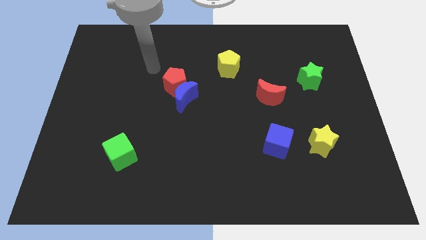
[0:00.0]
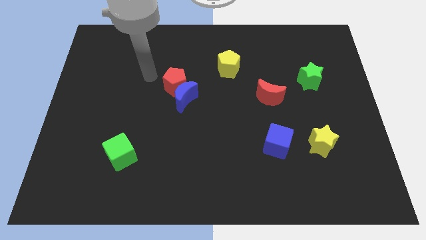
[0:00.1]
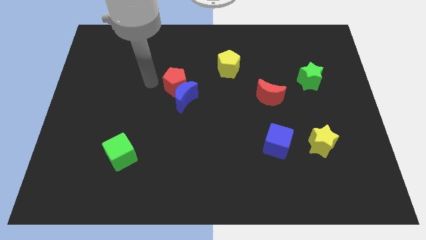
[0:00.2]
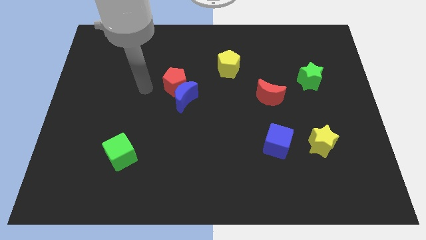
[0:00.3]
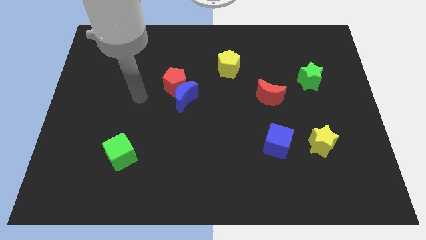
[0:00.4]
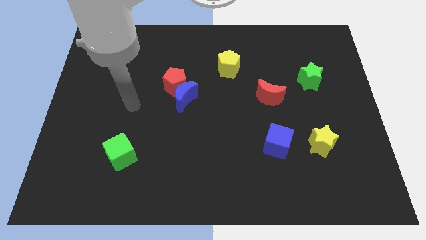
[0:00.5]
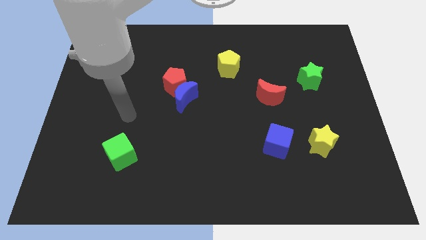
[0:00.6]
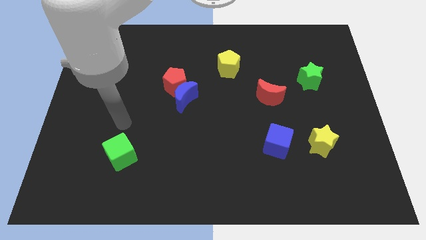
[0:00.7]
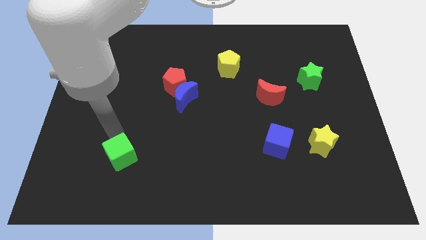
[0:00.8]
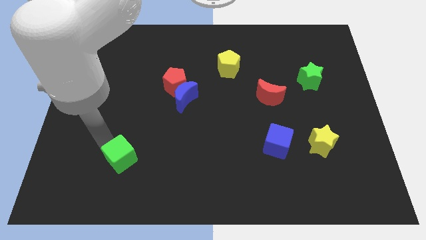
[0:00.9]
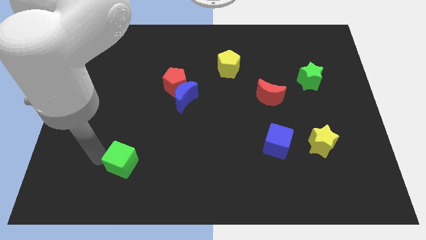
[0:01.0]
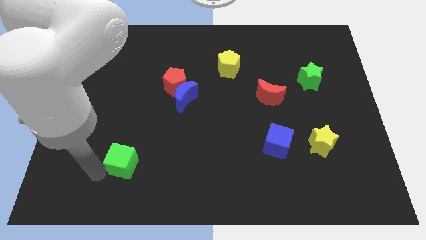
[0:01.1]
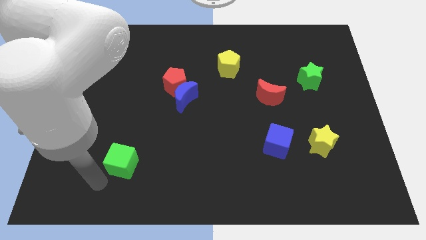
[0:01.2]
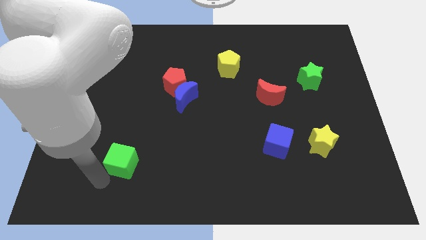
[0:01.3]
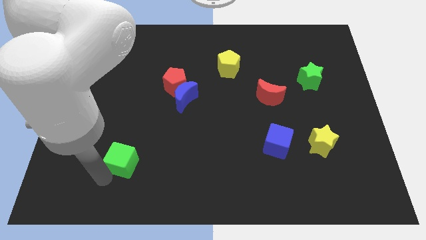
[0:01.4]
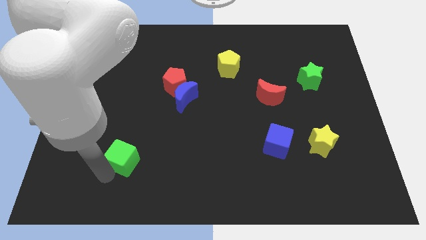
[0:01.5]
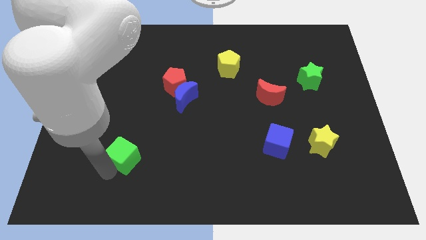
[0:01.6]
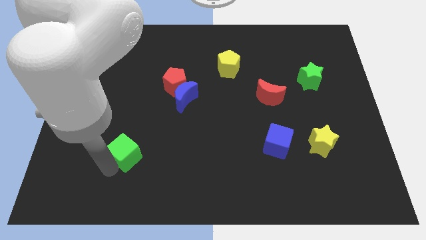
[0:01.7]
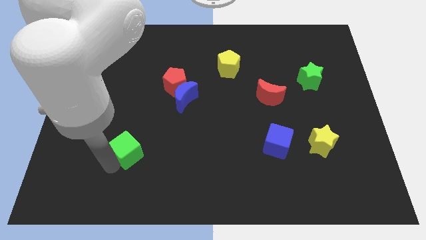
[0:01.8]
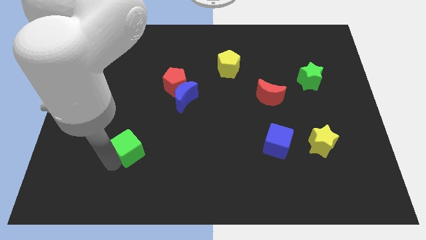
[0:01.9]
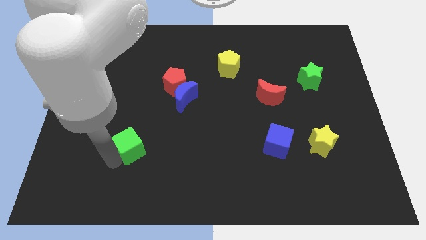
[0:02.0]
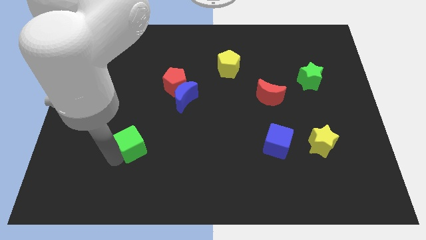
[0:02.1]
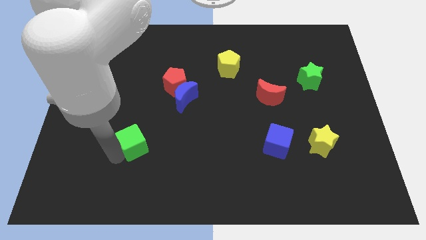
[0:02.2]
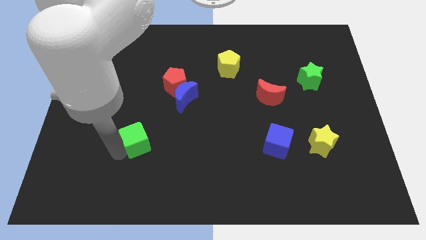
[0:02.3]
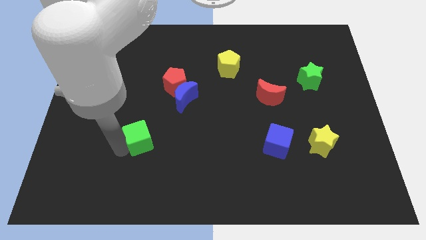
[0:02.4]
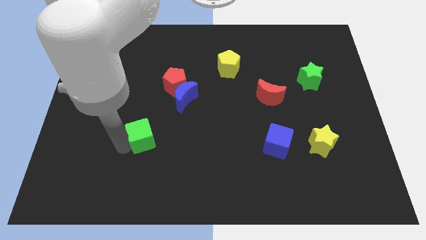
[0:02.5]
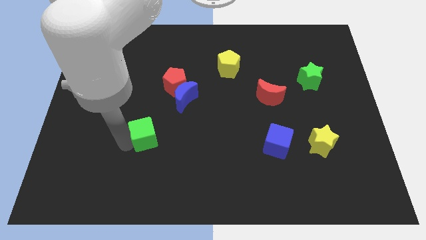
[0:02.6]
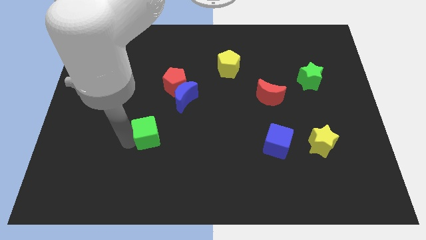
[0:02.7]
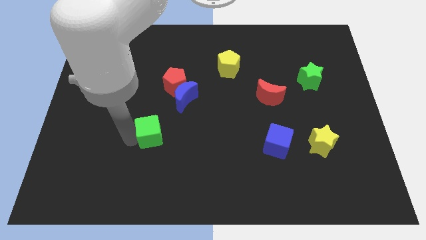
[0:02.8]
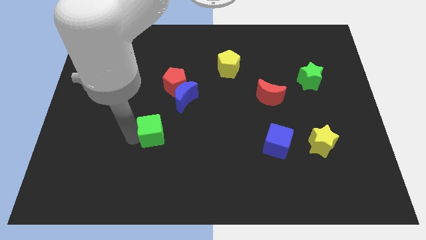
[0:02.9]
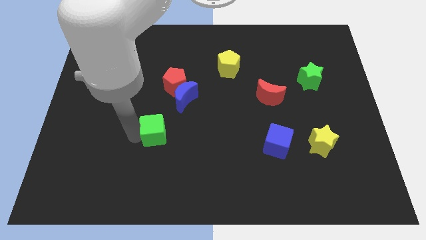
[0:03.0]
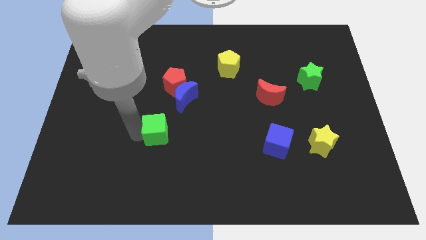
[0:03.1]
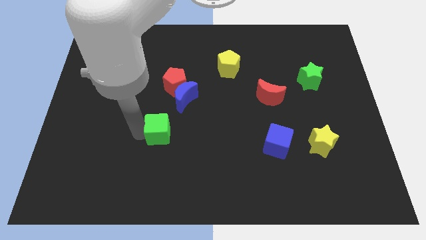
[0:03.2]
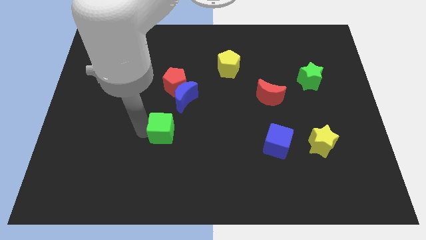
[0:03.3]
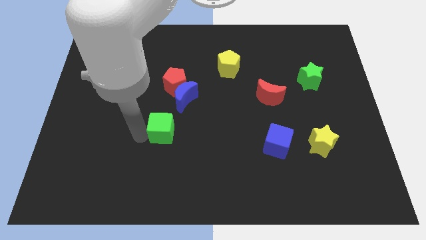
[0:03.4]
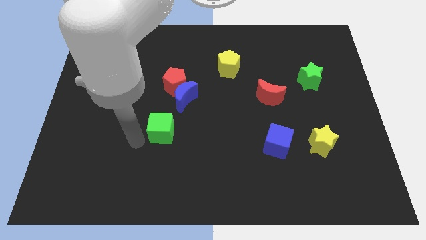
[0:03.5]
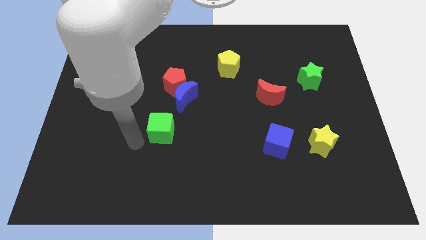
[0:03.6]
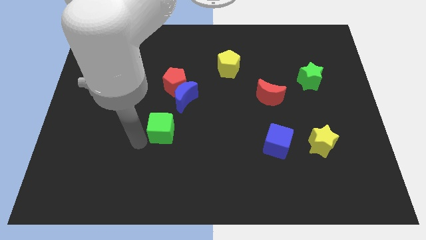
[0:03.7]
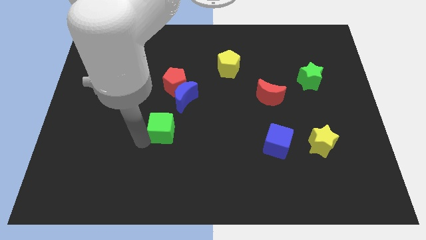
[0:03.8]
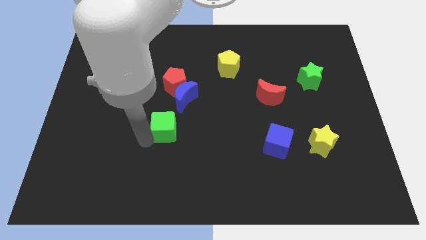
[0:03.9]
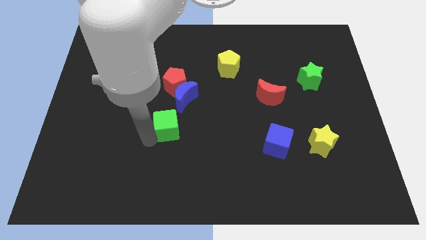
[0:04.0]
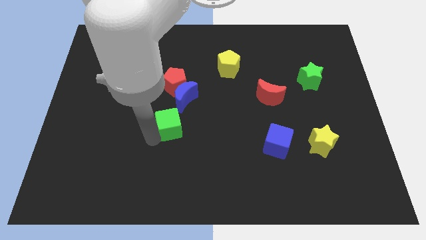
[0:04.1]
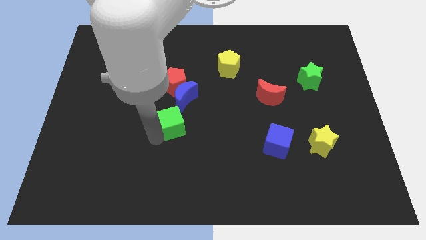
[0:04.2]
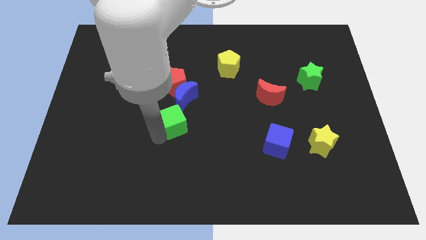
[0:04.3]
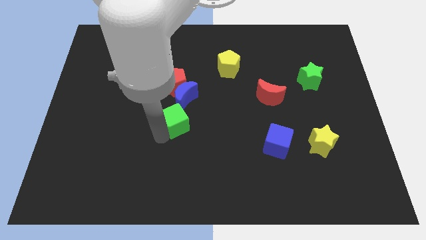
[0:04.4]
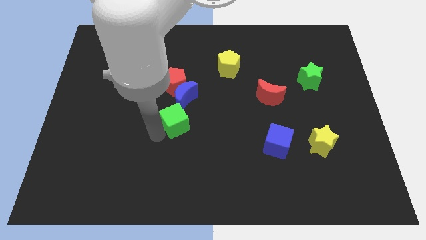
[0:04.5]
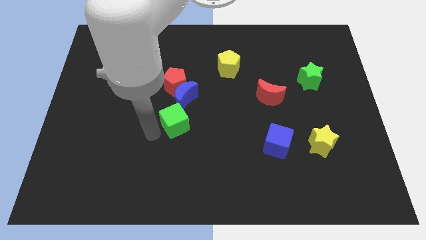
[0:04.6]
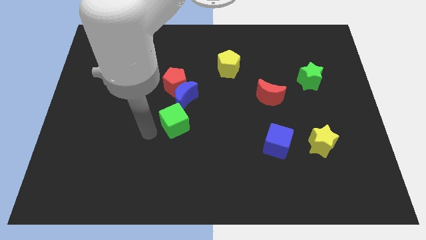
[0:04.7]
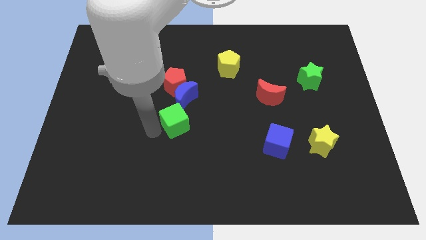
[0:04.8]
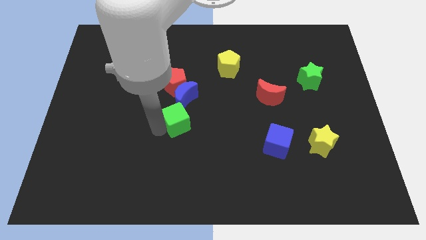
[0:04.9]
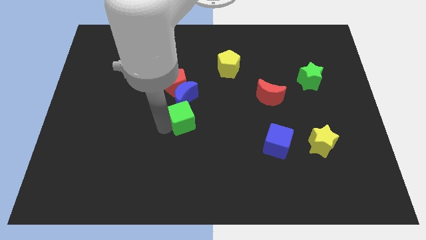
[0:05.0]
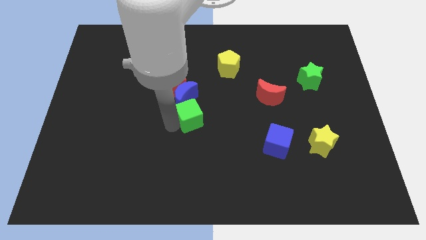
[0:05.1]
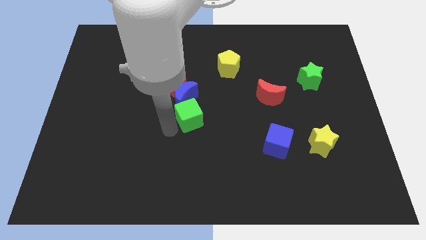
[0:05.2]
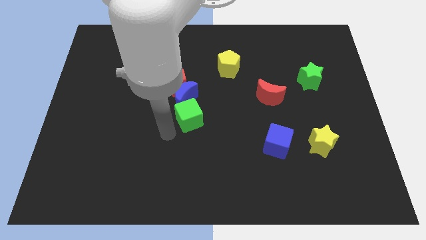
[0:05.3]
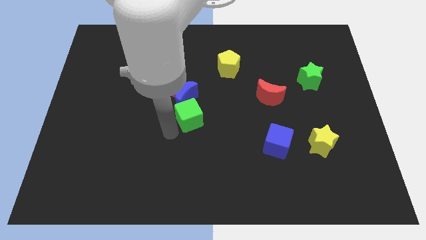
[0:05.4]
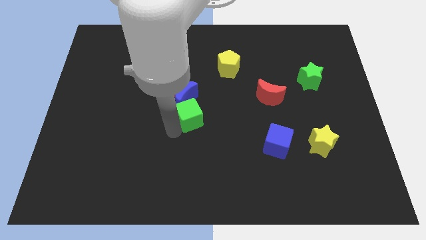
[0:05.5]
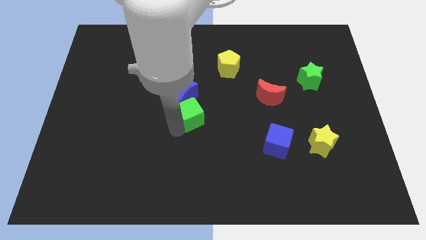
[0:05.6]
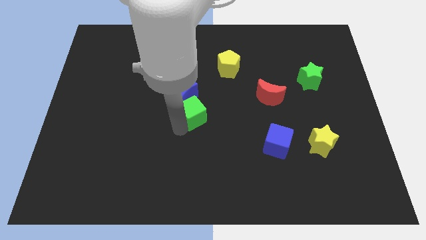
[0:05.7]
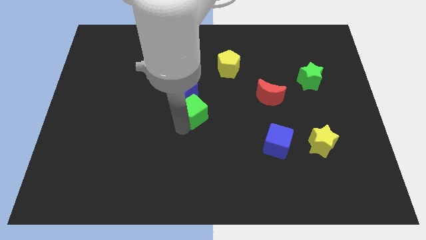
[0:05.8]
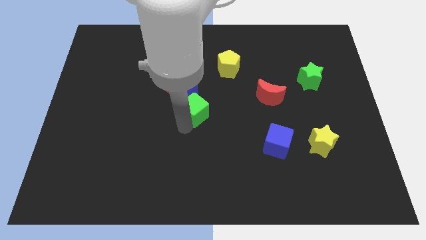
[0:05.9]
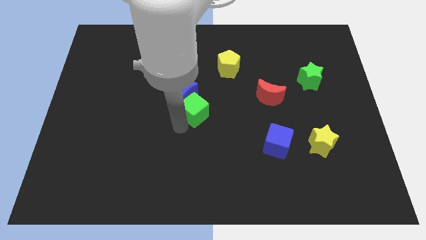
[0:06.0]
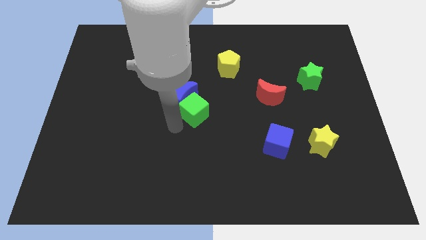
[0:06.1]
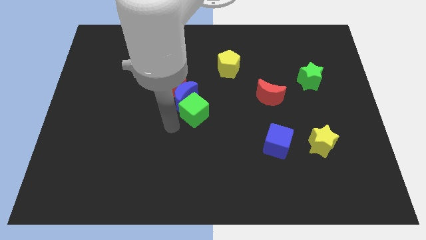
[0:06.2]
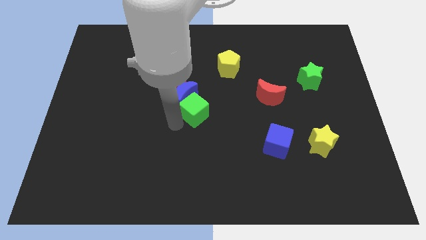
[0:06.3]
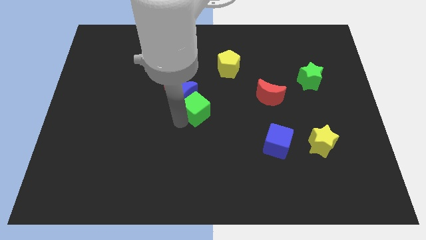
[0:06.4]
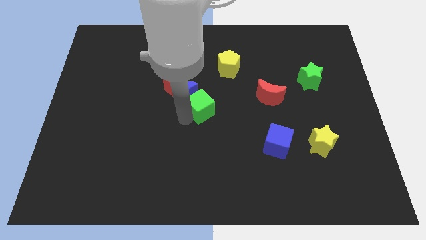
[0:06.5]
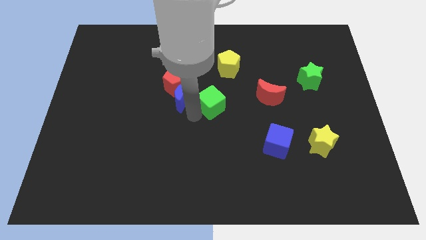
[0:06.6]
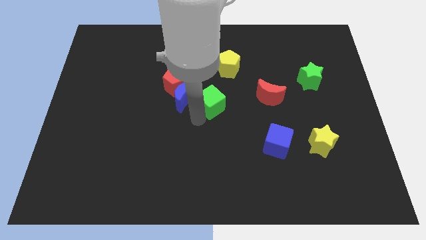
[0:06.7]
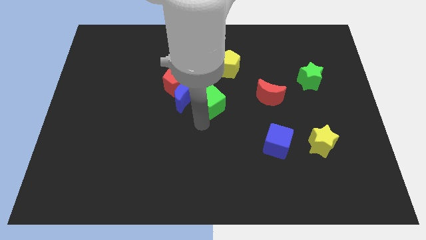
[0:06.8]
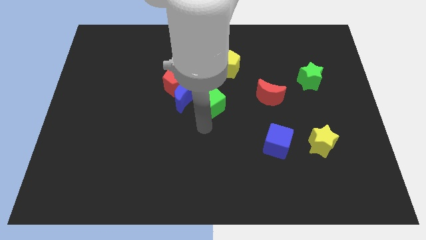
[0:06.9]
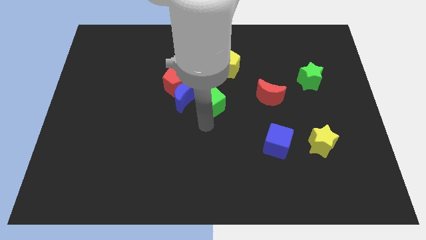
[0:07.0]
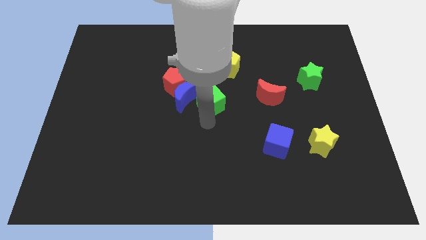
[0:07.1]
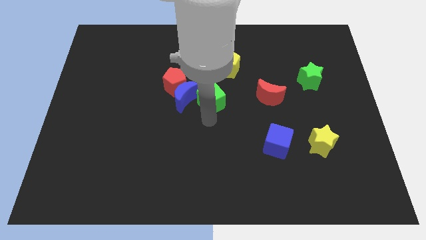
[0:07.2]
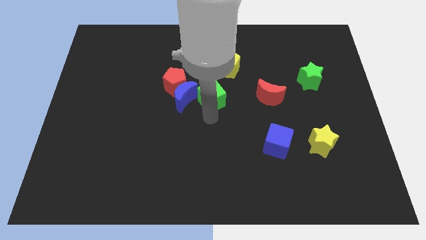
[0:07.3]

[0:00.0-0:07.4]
put the green cube right of the red pentagon
